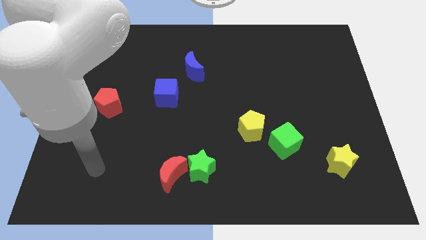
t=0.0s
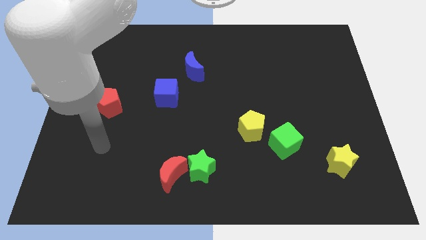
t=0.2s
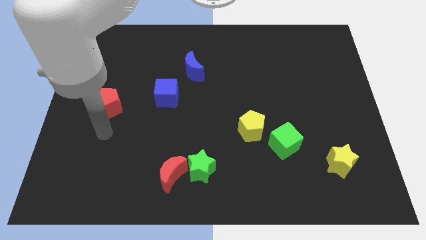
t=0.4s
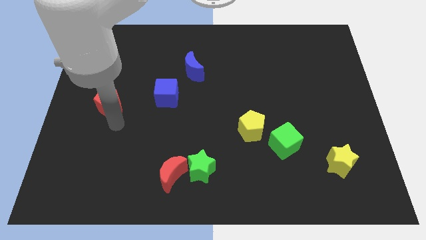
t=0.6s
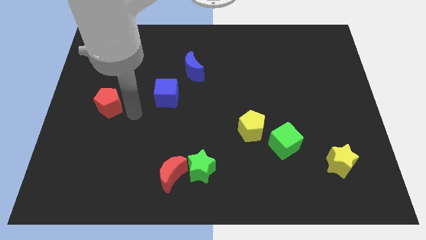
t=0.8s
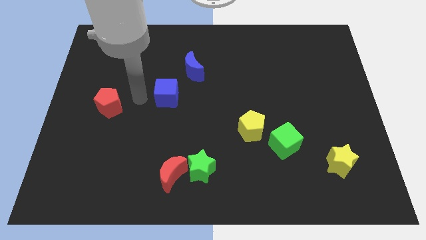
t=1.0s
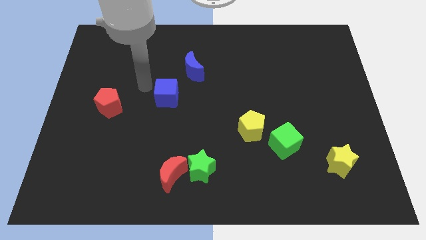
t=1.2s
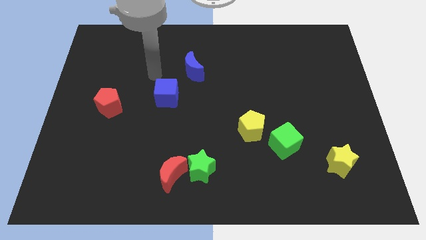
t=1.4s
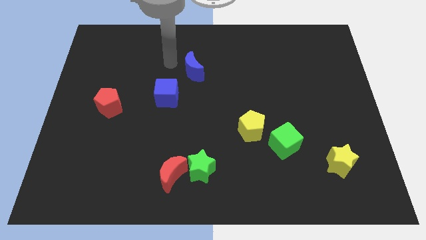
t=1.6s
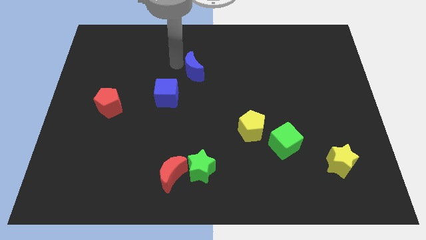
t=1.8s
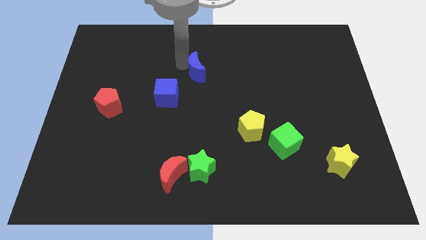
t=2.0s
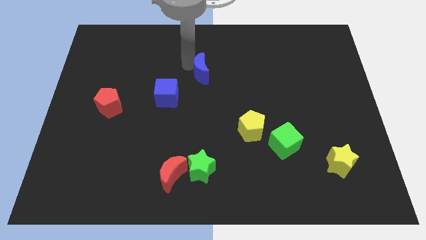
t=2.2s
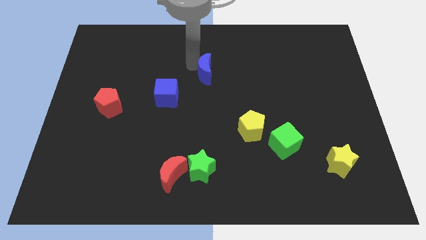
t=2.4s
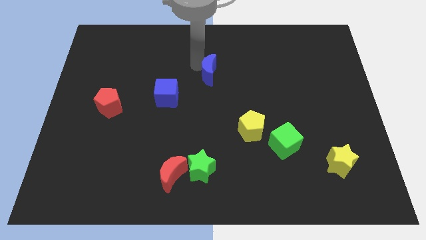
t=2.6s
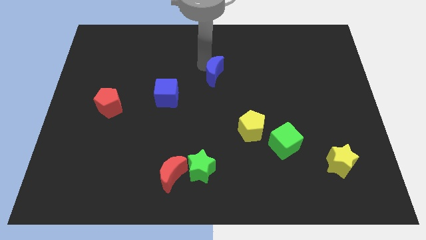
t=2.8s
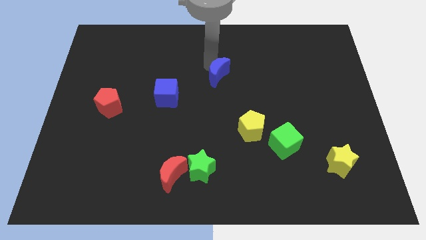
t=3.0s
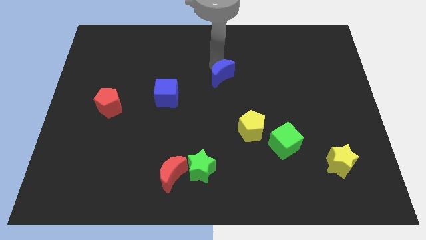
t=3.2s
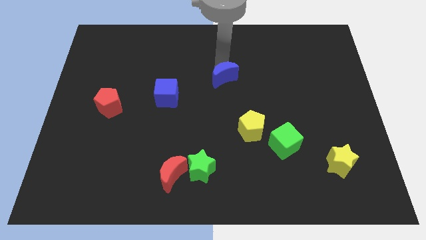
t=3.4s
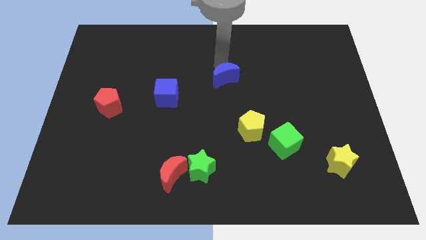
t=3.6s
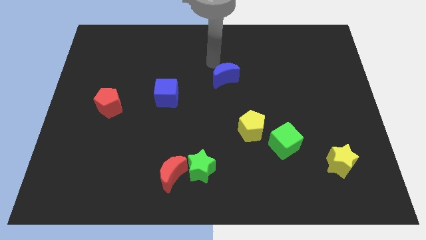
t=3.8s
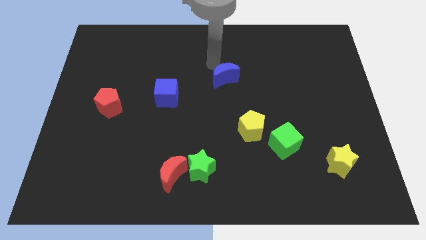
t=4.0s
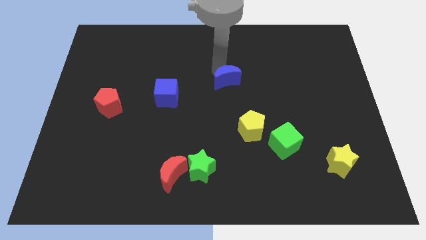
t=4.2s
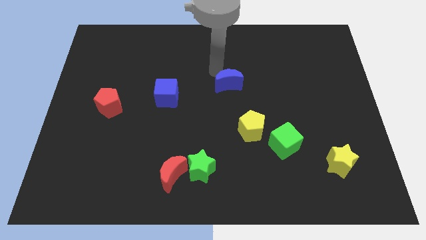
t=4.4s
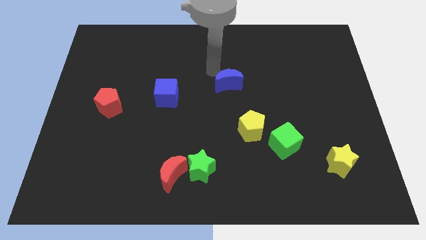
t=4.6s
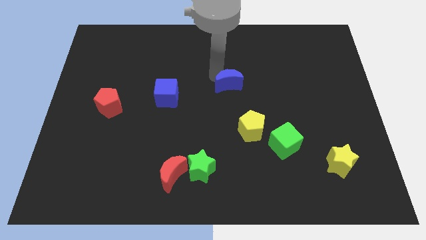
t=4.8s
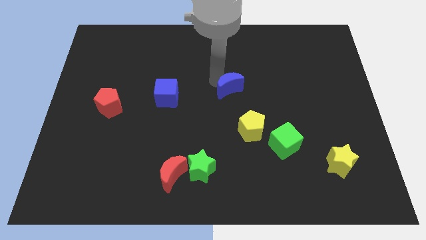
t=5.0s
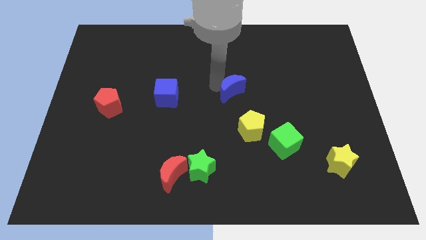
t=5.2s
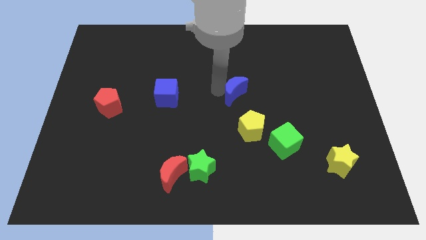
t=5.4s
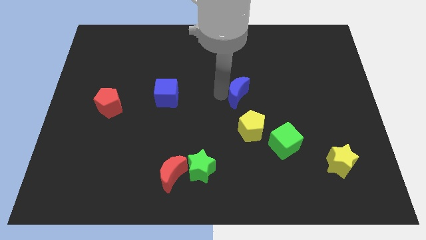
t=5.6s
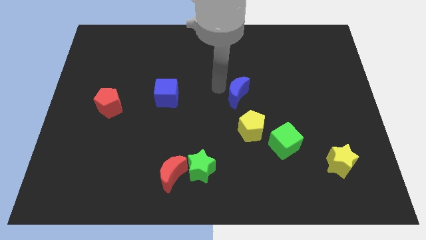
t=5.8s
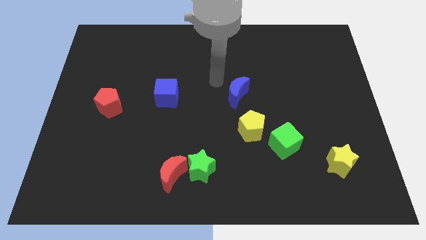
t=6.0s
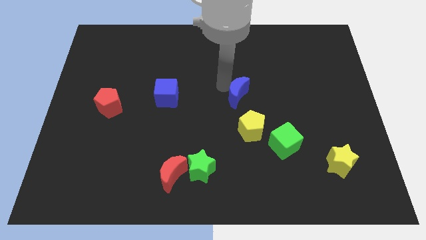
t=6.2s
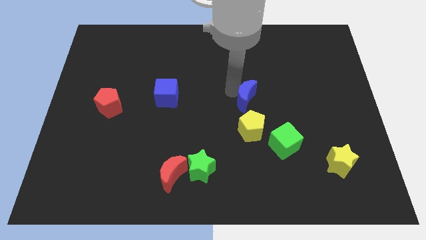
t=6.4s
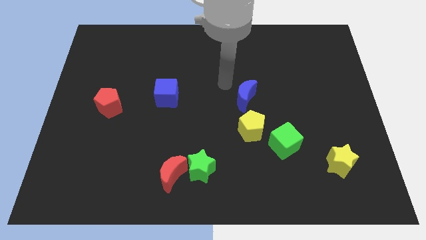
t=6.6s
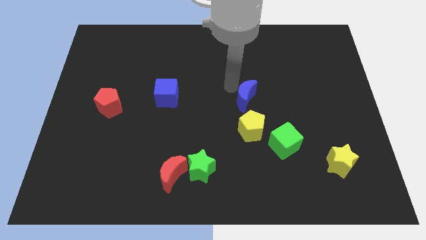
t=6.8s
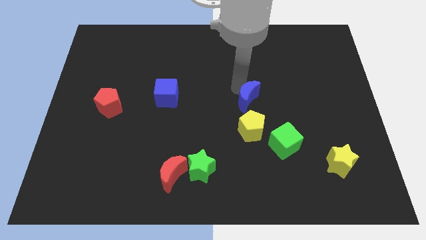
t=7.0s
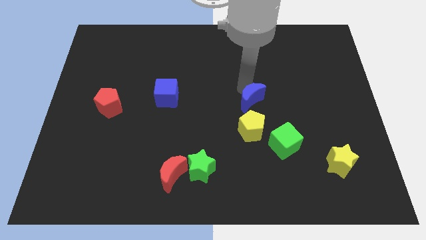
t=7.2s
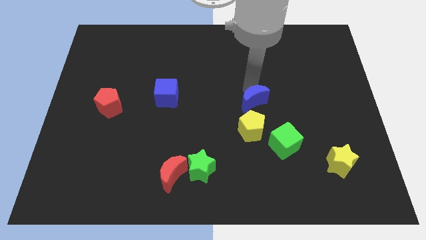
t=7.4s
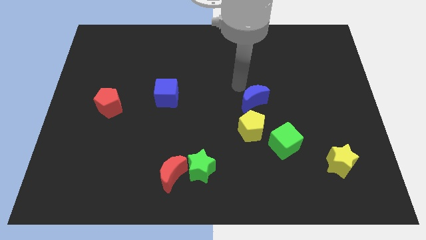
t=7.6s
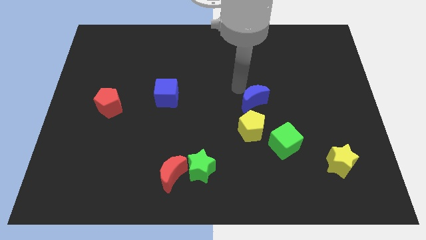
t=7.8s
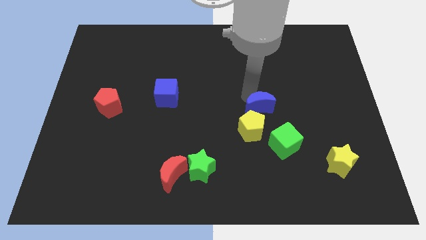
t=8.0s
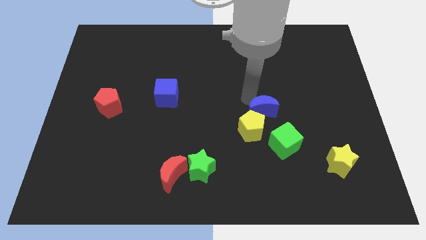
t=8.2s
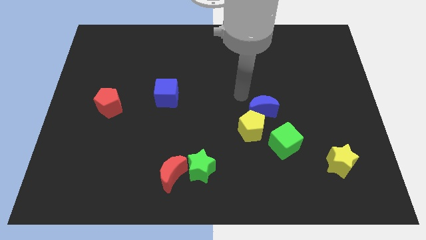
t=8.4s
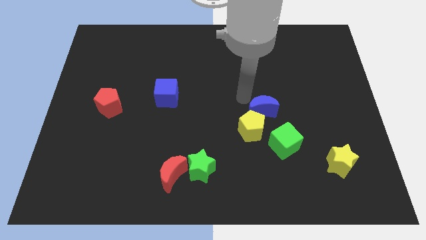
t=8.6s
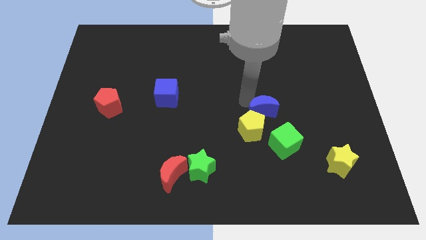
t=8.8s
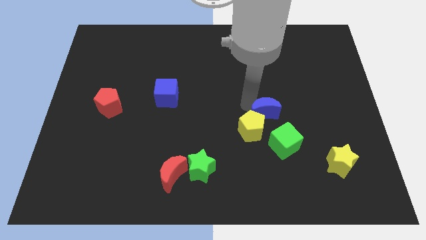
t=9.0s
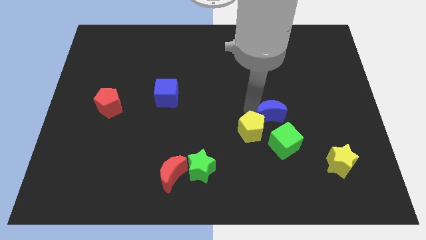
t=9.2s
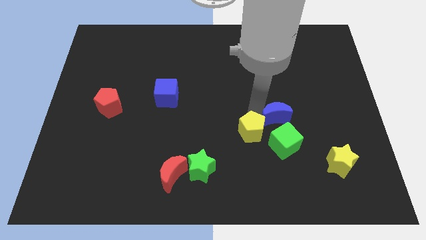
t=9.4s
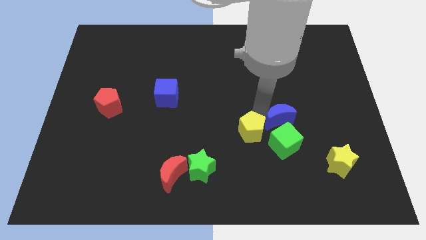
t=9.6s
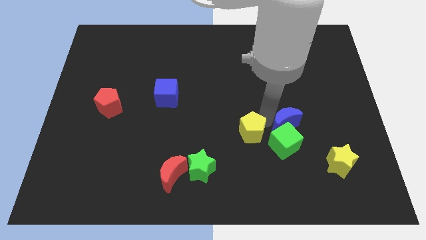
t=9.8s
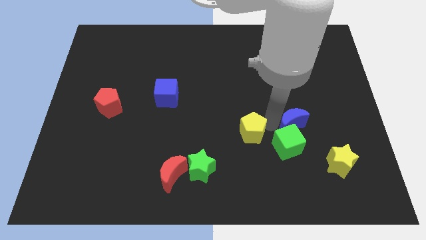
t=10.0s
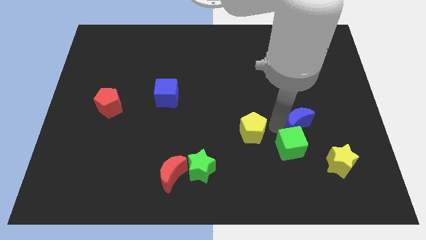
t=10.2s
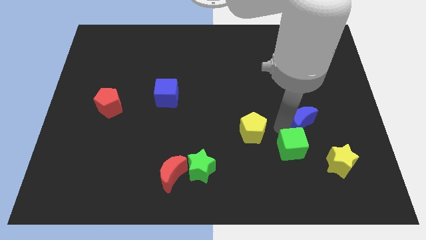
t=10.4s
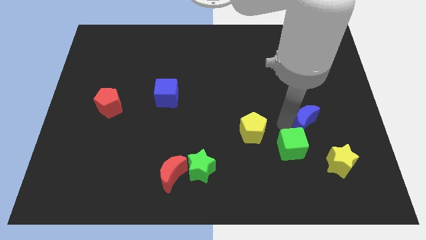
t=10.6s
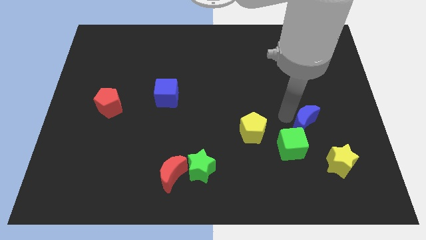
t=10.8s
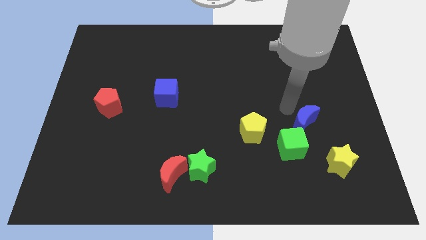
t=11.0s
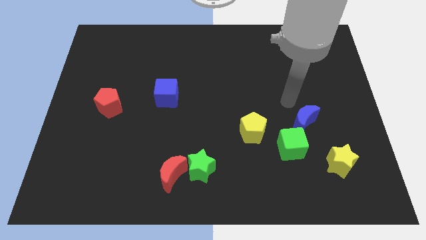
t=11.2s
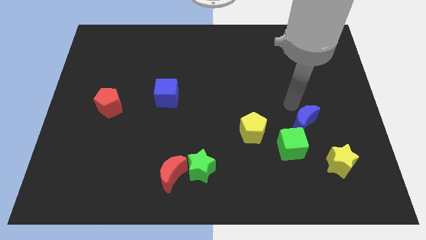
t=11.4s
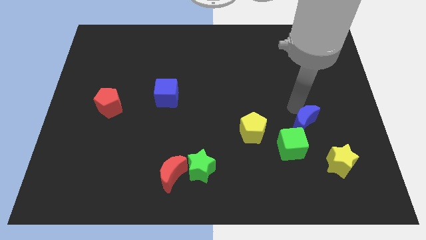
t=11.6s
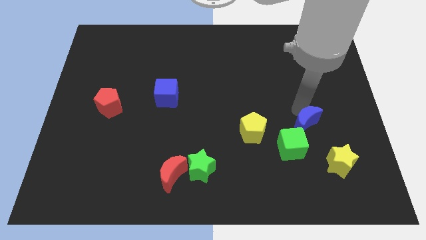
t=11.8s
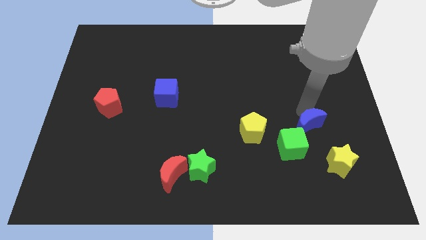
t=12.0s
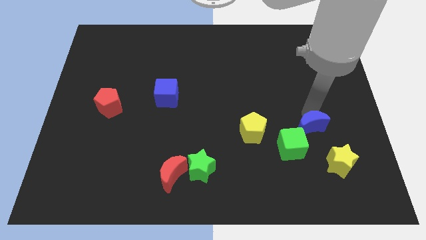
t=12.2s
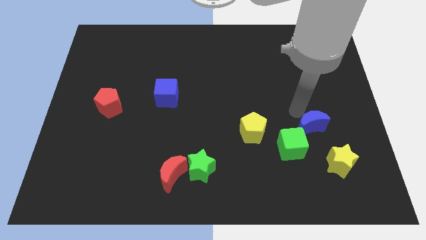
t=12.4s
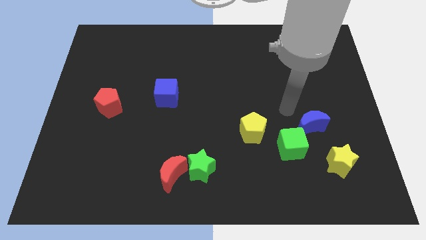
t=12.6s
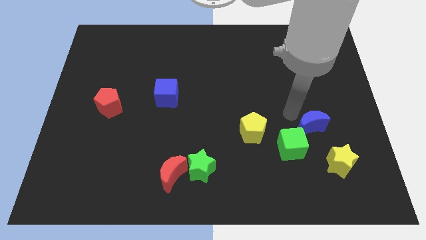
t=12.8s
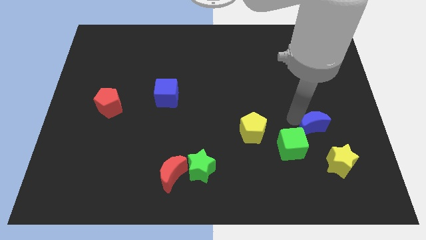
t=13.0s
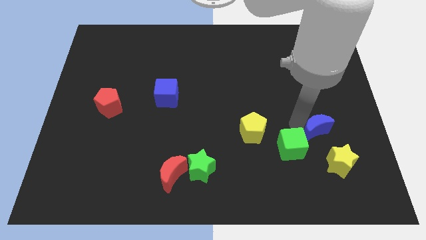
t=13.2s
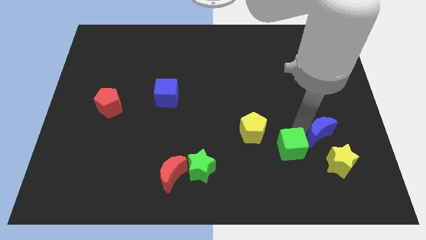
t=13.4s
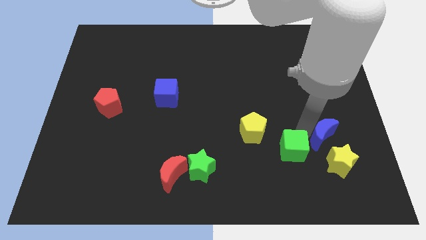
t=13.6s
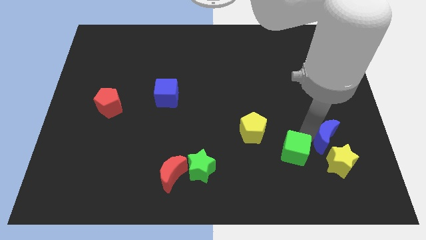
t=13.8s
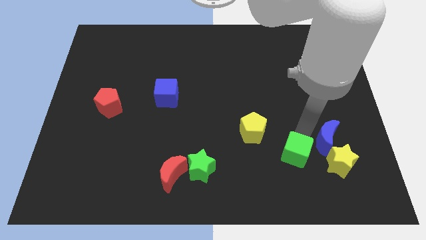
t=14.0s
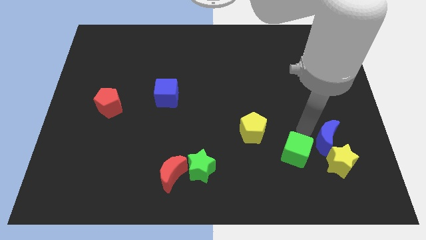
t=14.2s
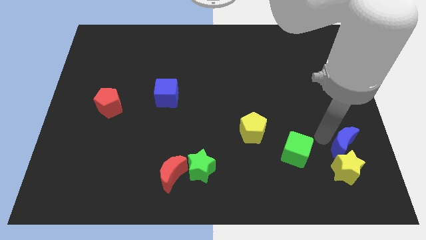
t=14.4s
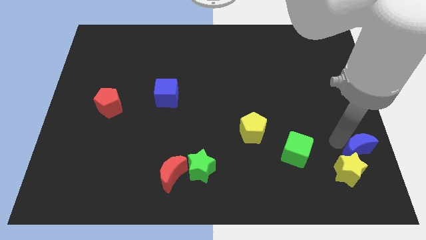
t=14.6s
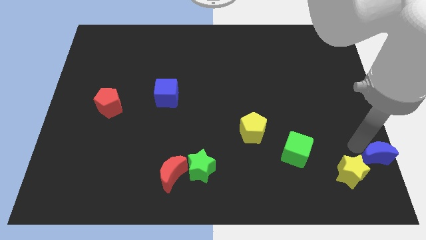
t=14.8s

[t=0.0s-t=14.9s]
push the blue moon to the bottom right of the board
